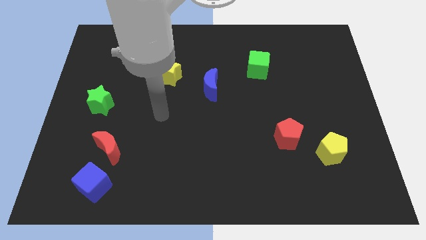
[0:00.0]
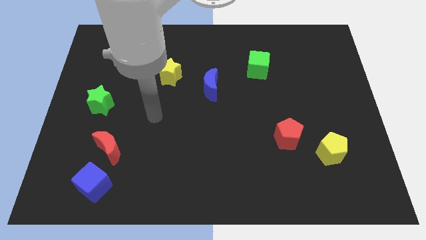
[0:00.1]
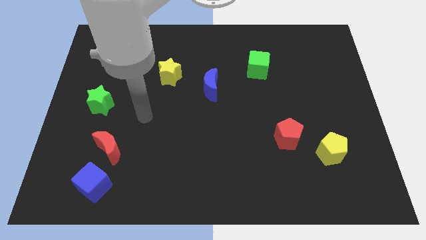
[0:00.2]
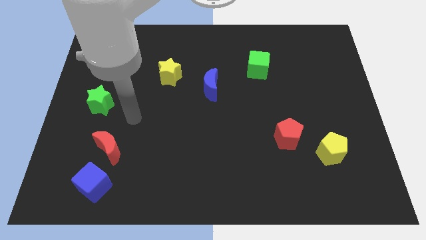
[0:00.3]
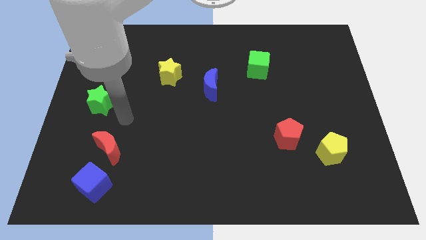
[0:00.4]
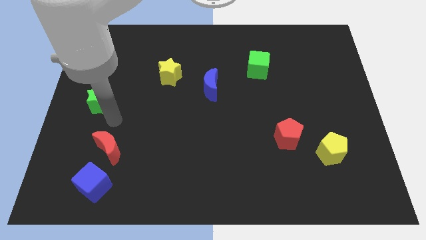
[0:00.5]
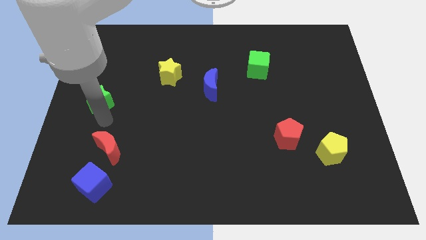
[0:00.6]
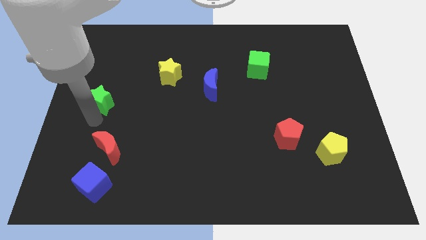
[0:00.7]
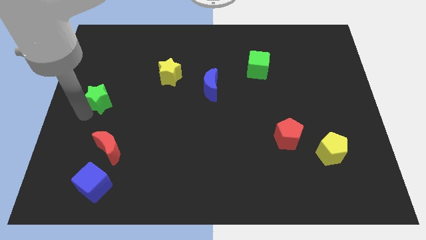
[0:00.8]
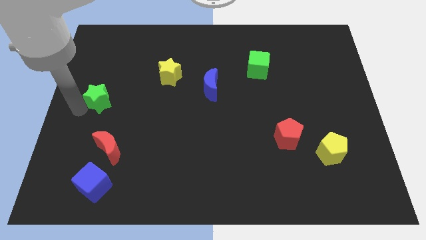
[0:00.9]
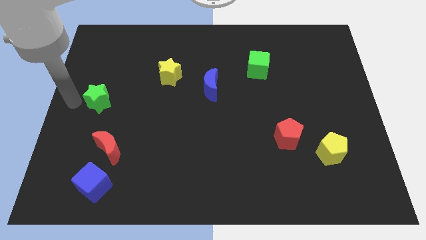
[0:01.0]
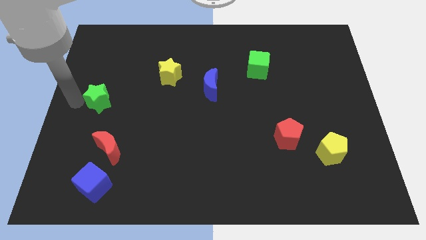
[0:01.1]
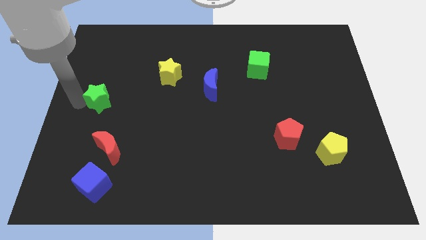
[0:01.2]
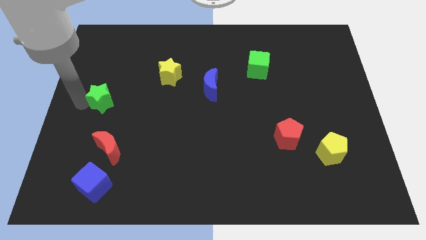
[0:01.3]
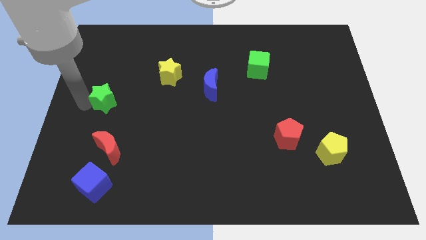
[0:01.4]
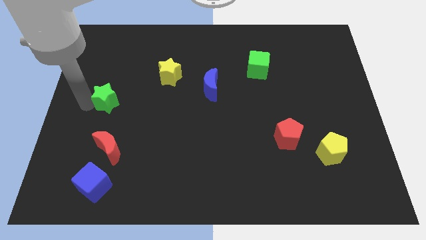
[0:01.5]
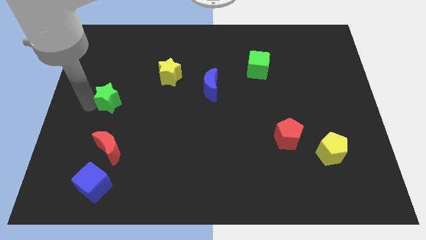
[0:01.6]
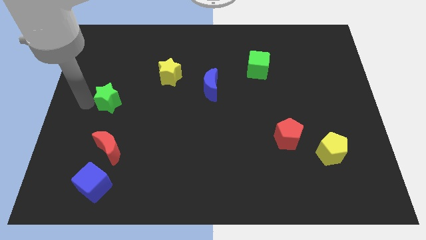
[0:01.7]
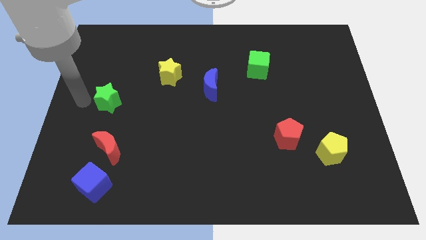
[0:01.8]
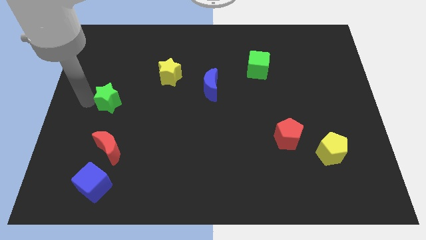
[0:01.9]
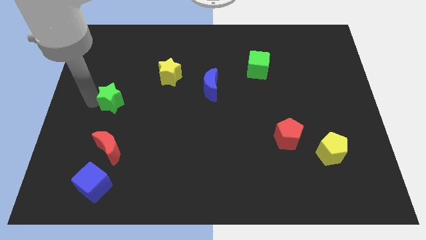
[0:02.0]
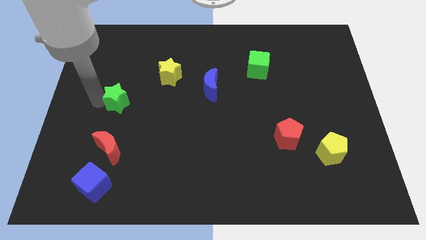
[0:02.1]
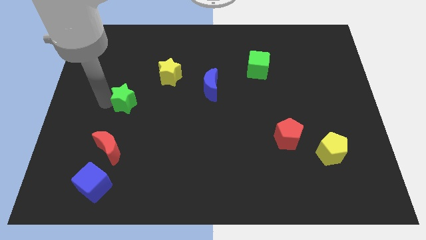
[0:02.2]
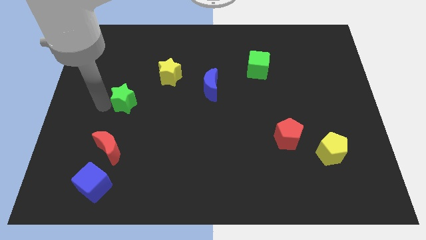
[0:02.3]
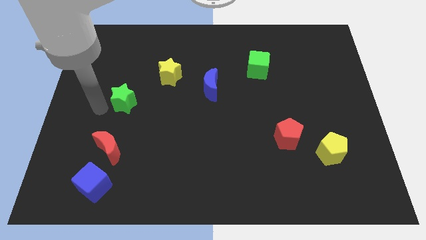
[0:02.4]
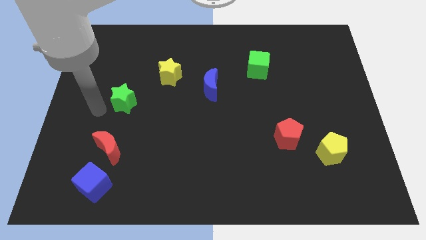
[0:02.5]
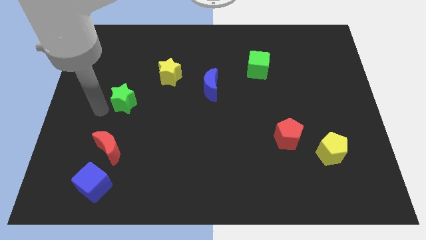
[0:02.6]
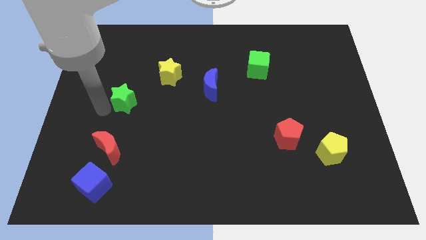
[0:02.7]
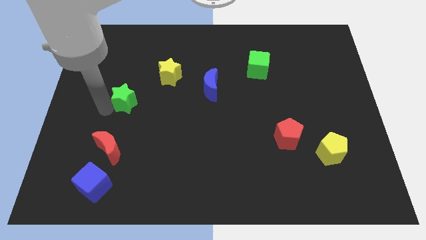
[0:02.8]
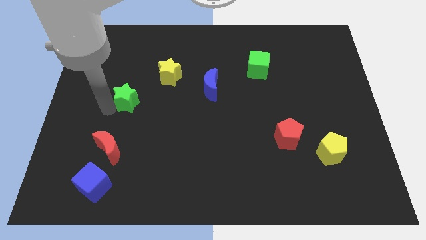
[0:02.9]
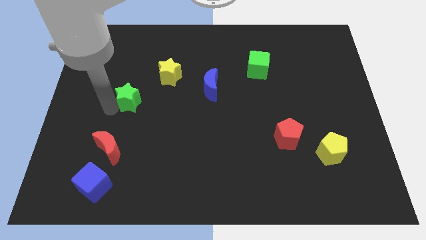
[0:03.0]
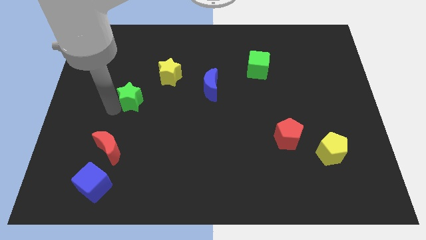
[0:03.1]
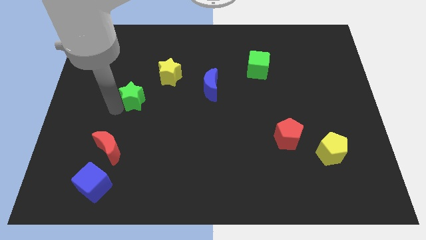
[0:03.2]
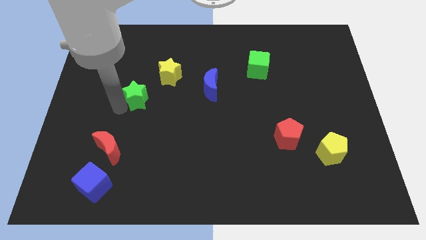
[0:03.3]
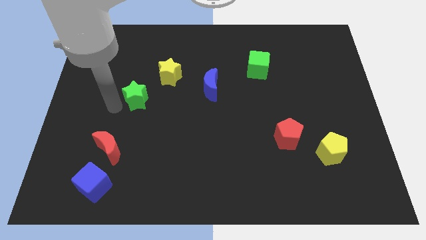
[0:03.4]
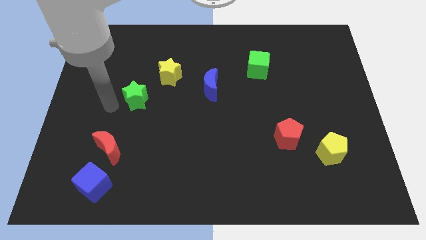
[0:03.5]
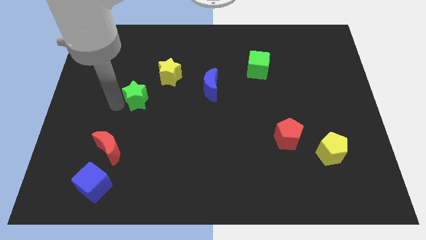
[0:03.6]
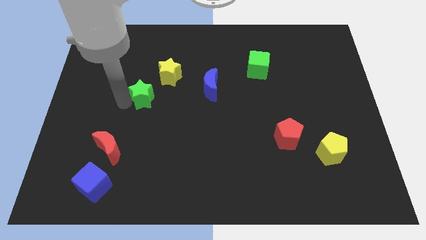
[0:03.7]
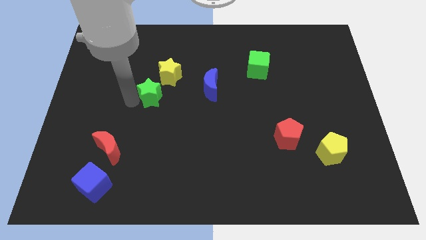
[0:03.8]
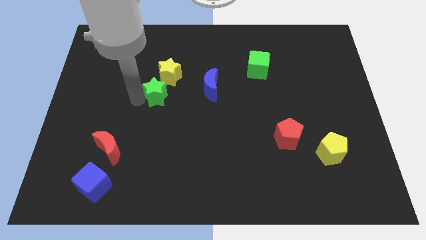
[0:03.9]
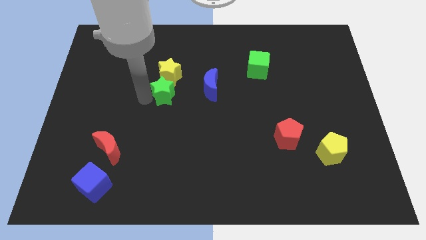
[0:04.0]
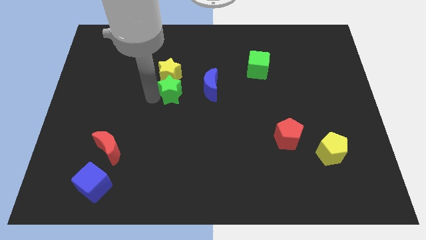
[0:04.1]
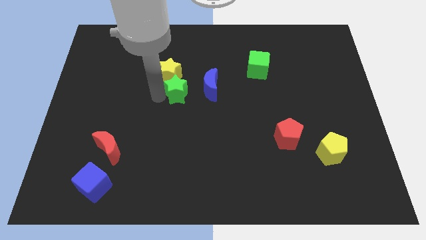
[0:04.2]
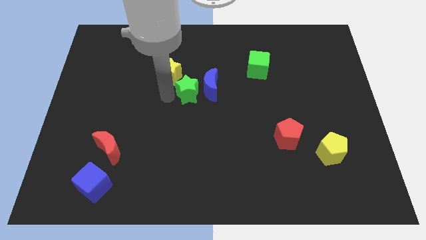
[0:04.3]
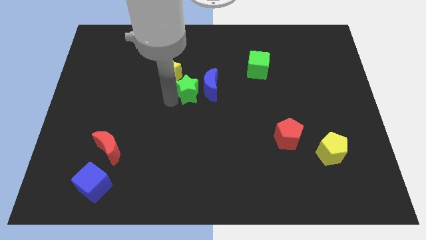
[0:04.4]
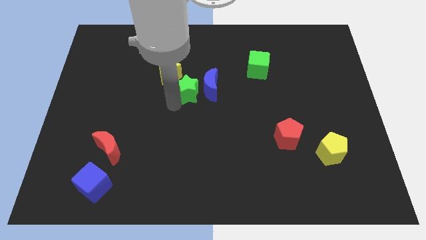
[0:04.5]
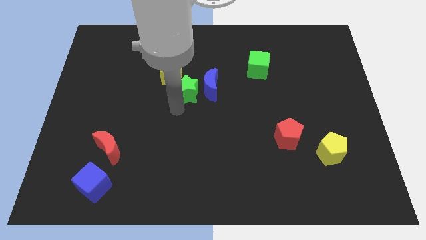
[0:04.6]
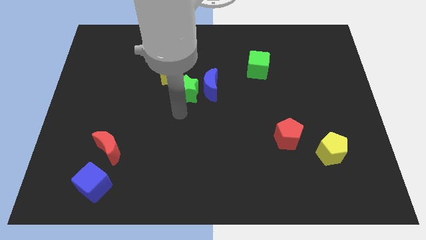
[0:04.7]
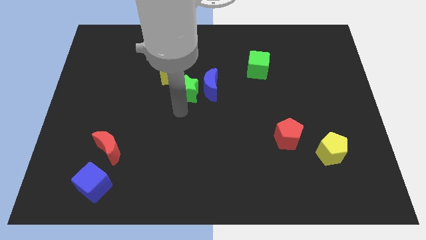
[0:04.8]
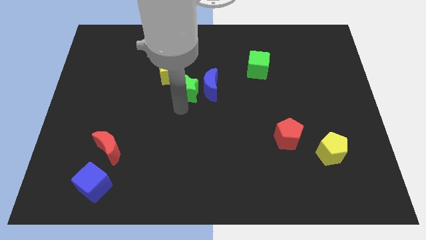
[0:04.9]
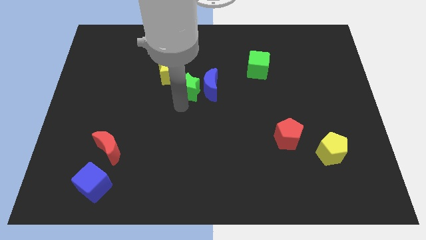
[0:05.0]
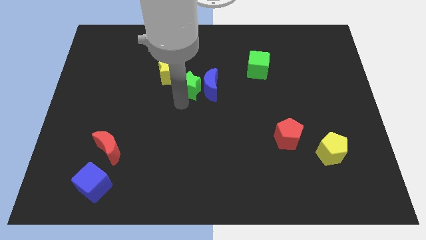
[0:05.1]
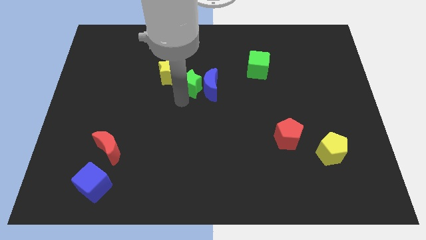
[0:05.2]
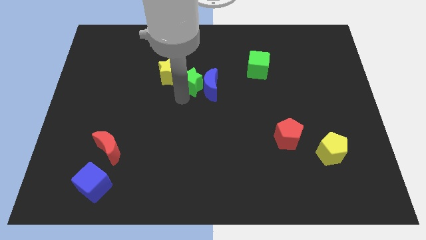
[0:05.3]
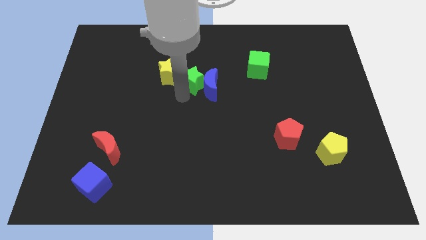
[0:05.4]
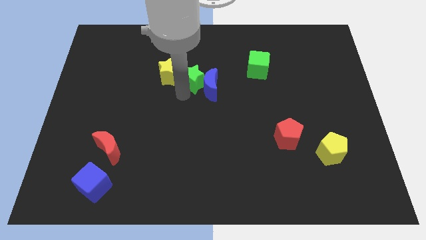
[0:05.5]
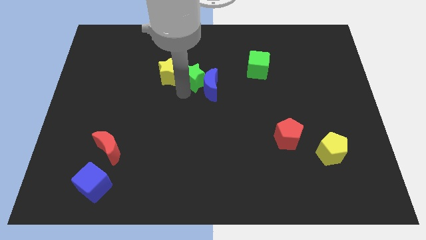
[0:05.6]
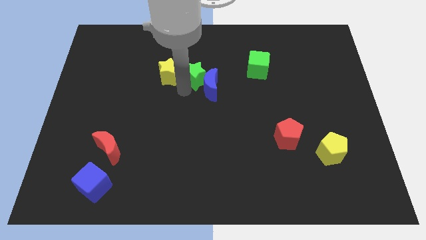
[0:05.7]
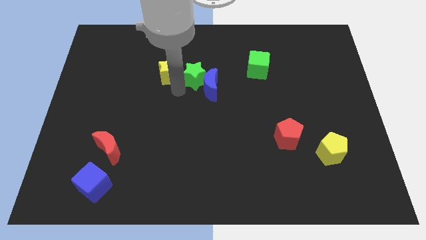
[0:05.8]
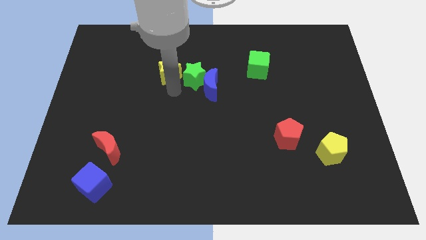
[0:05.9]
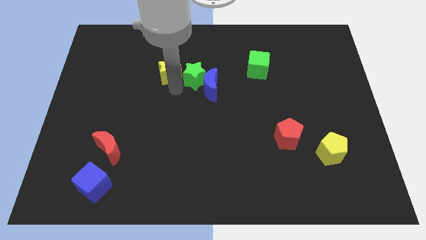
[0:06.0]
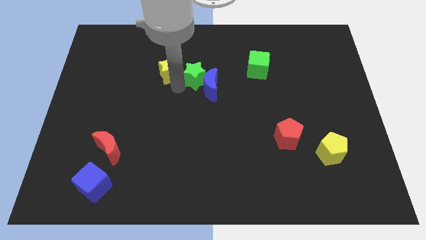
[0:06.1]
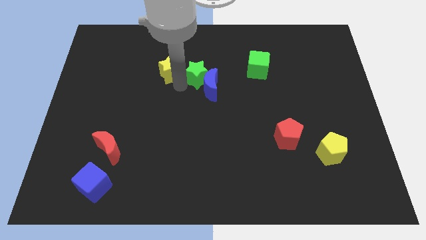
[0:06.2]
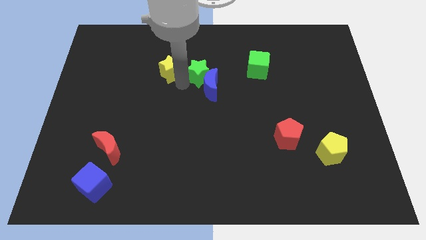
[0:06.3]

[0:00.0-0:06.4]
move the green star just left of the green cube
